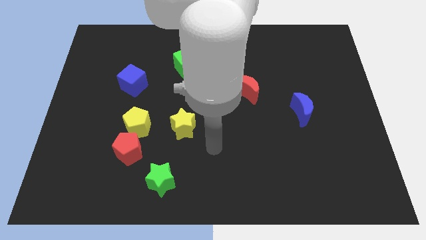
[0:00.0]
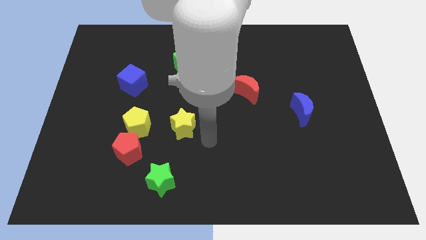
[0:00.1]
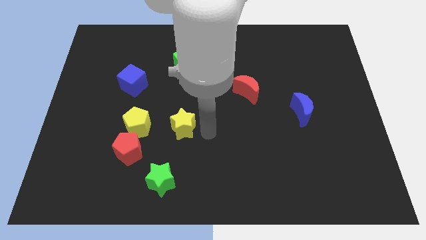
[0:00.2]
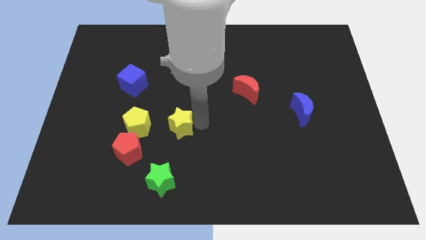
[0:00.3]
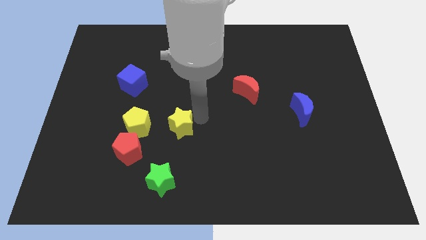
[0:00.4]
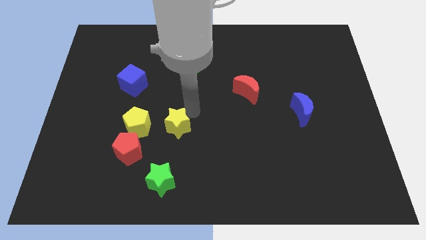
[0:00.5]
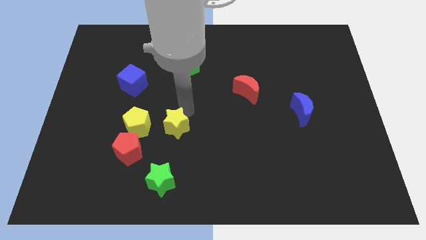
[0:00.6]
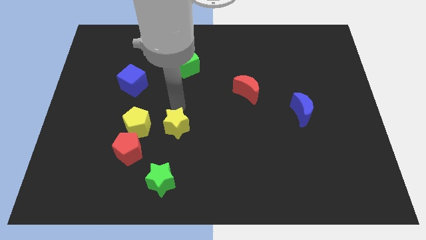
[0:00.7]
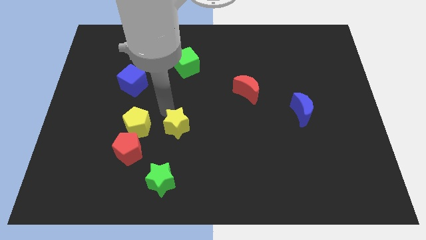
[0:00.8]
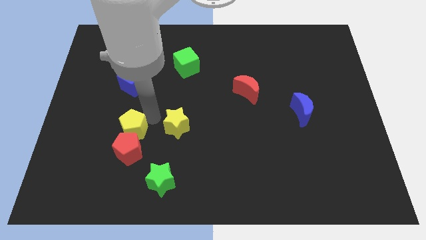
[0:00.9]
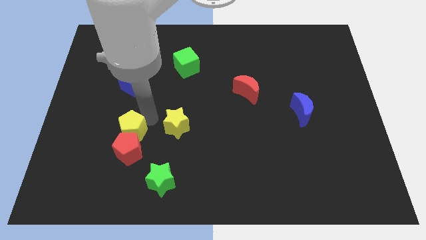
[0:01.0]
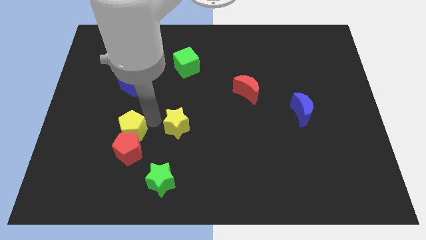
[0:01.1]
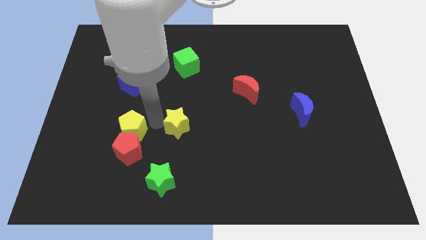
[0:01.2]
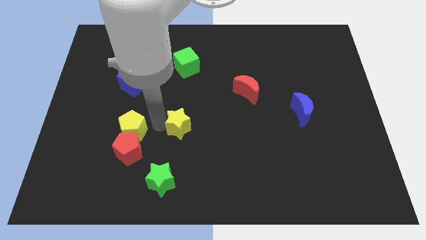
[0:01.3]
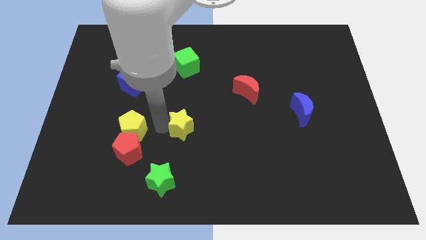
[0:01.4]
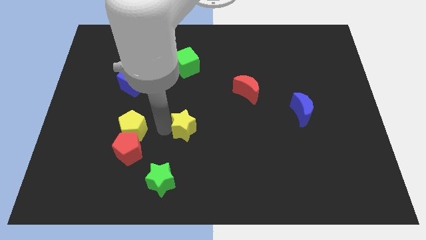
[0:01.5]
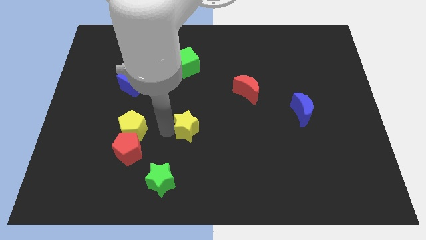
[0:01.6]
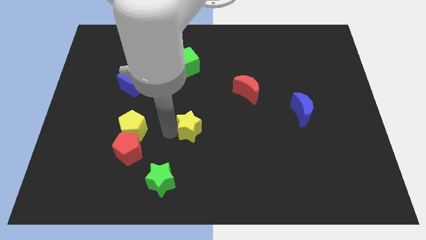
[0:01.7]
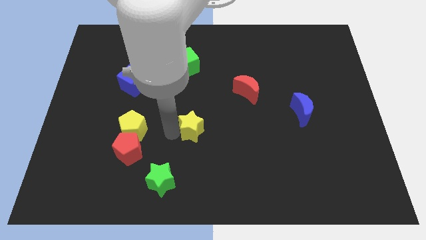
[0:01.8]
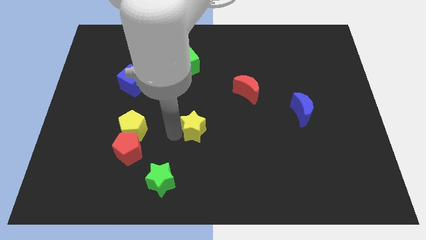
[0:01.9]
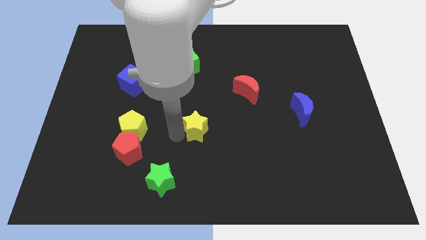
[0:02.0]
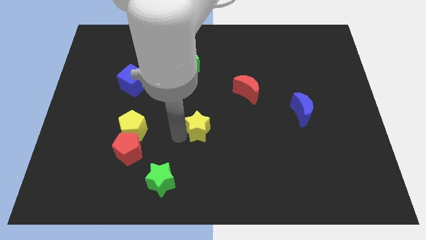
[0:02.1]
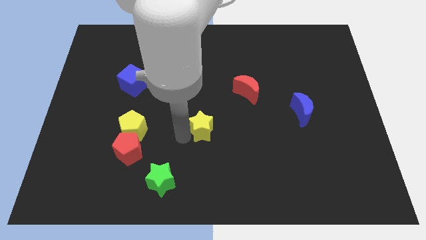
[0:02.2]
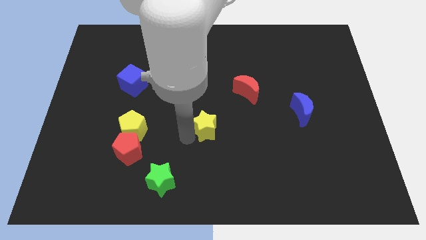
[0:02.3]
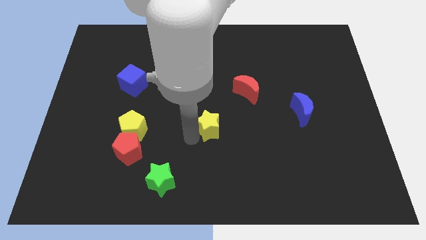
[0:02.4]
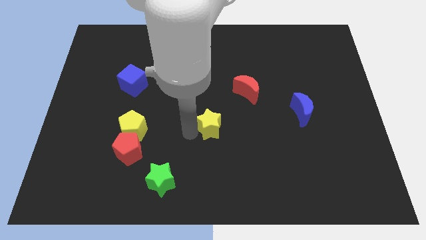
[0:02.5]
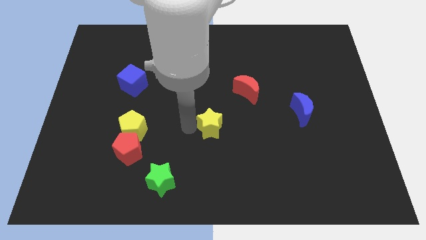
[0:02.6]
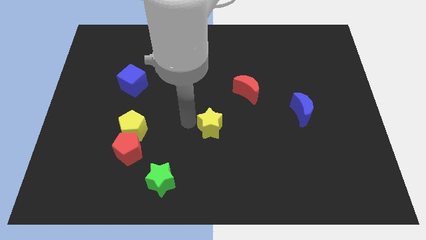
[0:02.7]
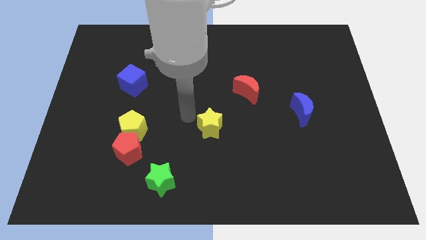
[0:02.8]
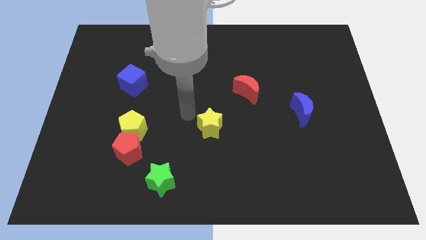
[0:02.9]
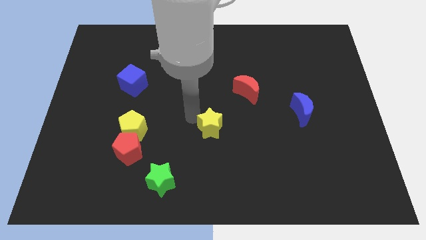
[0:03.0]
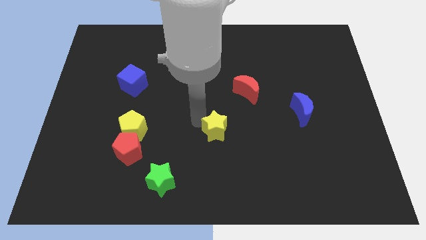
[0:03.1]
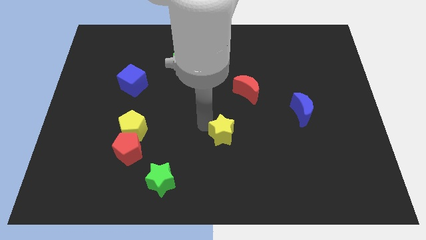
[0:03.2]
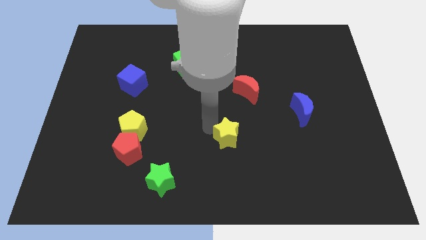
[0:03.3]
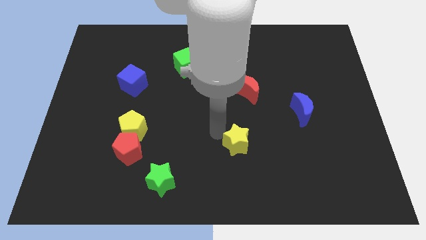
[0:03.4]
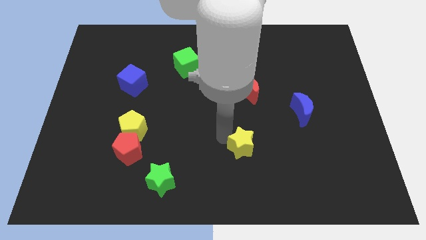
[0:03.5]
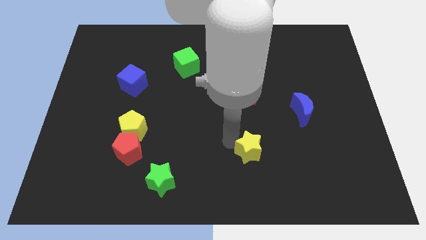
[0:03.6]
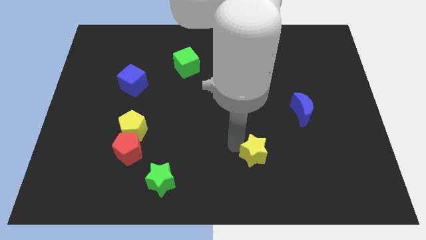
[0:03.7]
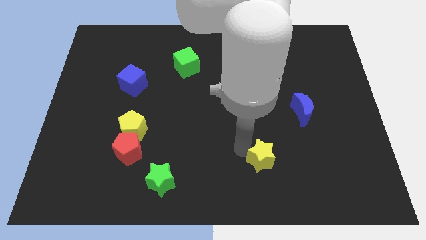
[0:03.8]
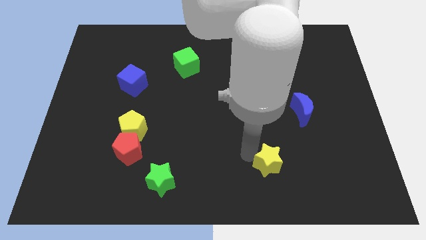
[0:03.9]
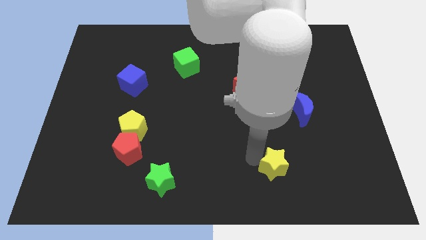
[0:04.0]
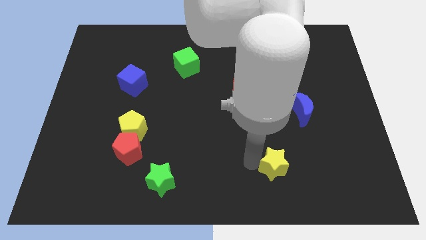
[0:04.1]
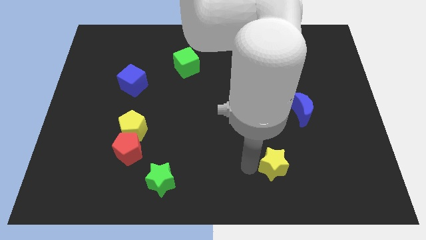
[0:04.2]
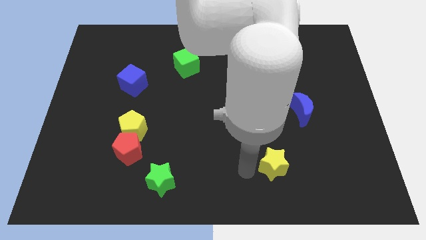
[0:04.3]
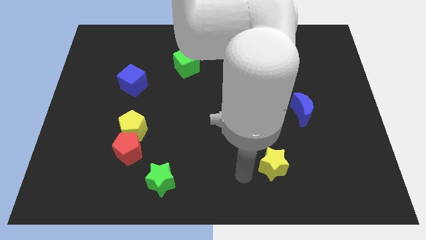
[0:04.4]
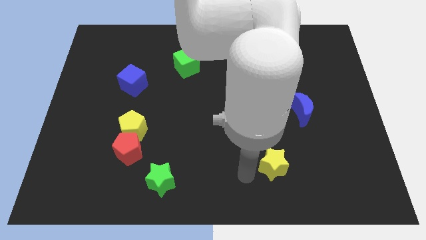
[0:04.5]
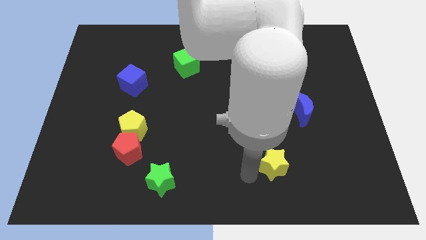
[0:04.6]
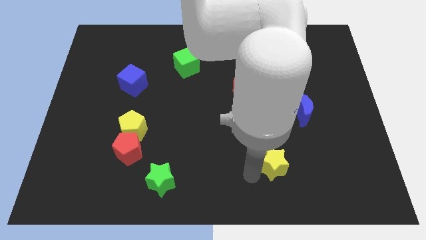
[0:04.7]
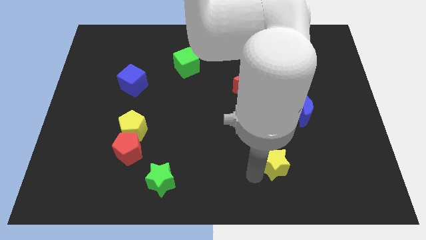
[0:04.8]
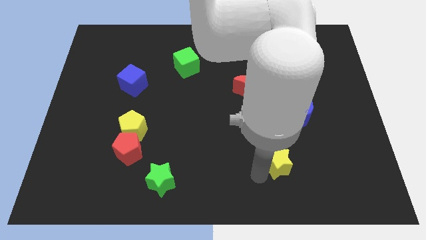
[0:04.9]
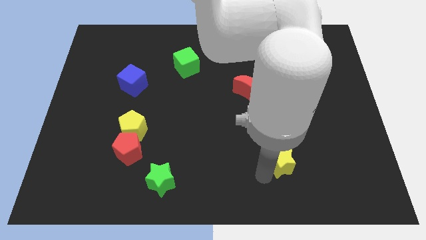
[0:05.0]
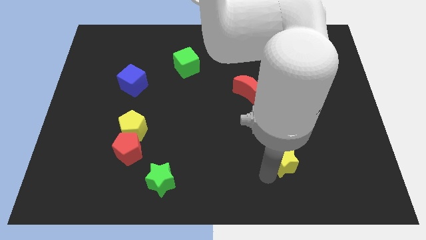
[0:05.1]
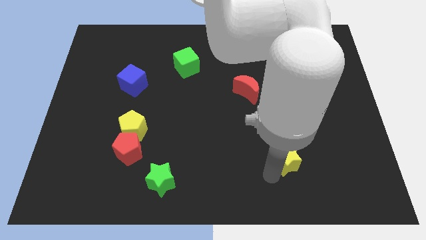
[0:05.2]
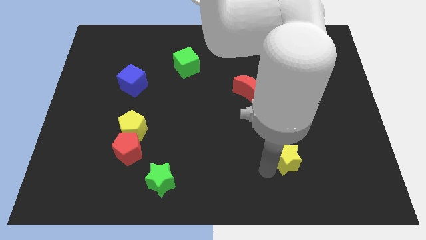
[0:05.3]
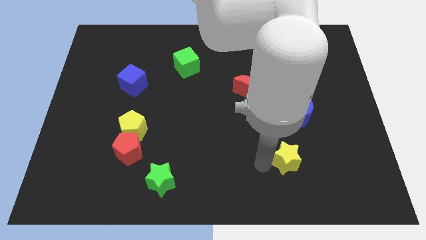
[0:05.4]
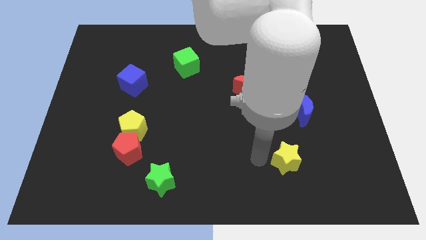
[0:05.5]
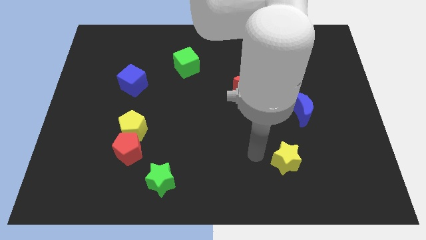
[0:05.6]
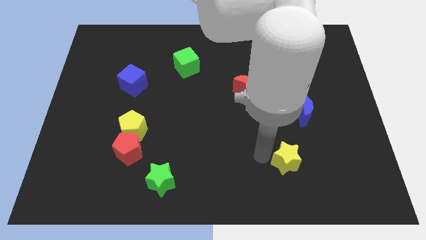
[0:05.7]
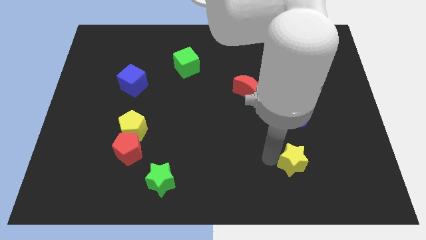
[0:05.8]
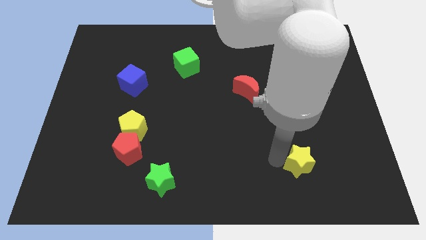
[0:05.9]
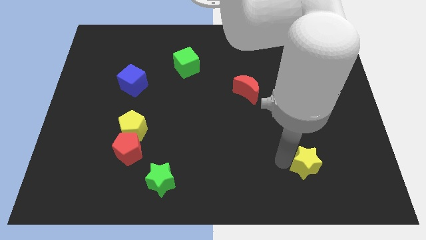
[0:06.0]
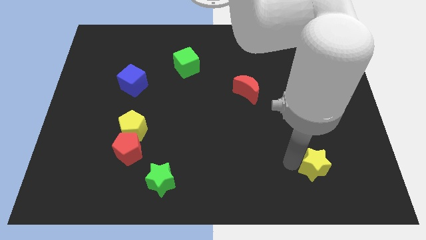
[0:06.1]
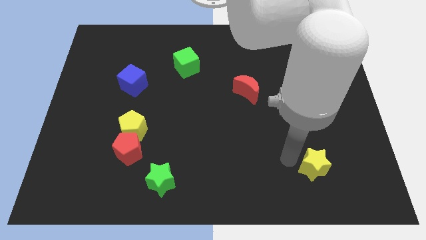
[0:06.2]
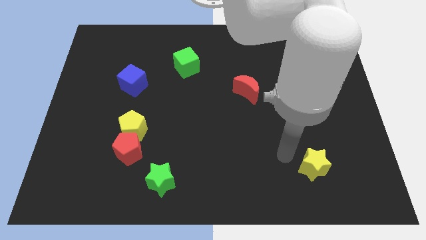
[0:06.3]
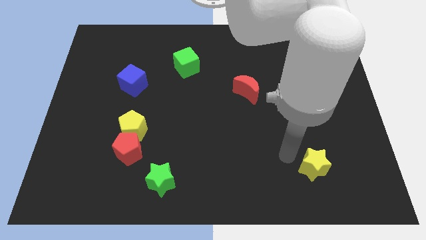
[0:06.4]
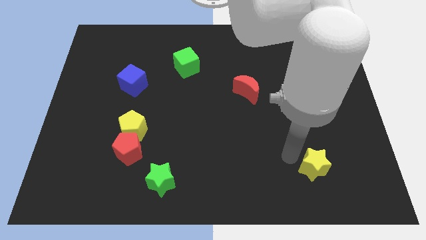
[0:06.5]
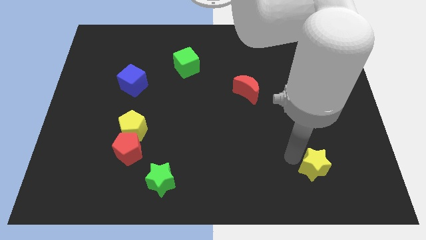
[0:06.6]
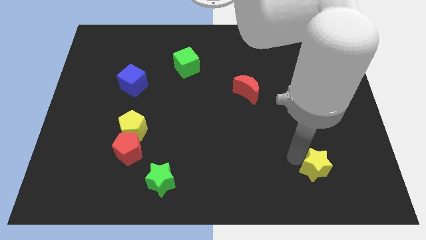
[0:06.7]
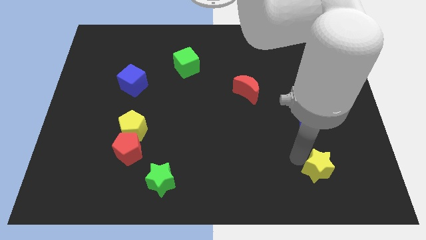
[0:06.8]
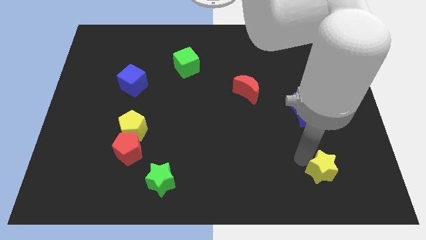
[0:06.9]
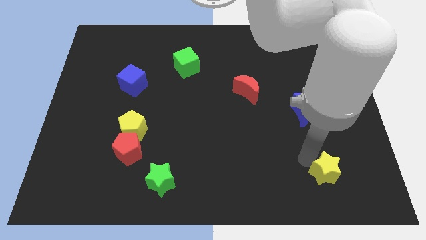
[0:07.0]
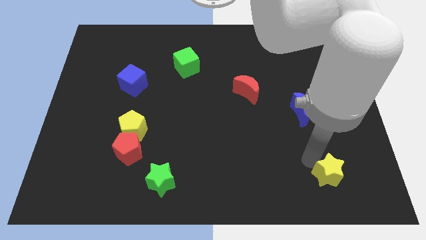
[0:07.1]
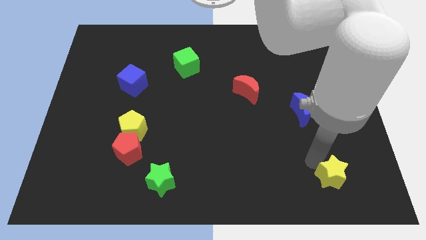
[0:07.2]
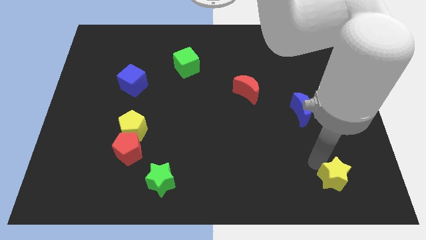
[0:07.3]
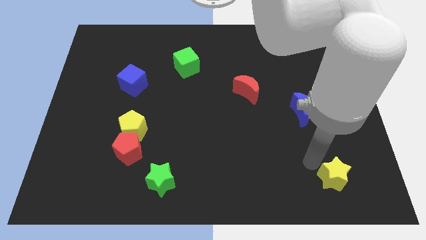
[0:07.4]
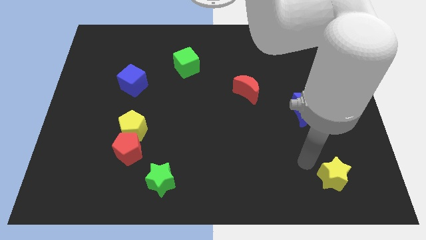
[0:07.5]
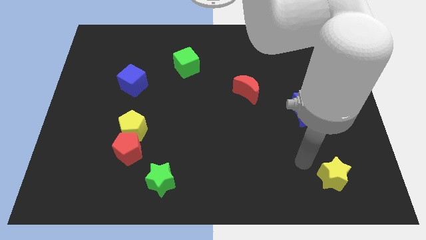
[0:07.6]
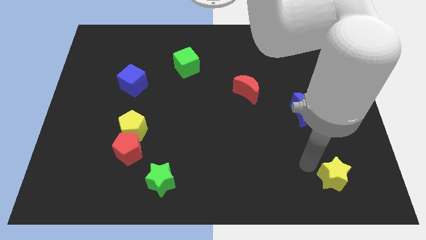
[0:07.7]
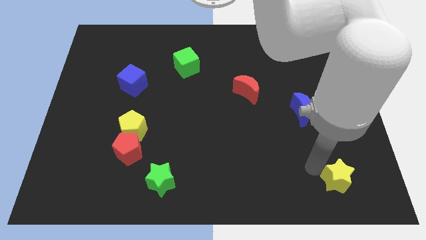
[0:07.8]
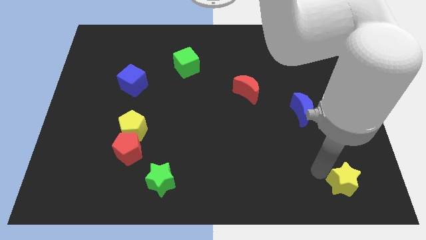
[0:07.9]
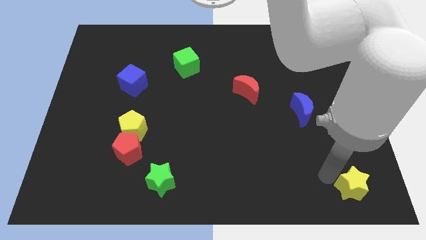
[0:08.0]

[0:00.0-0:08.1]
push the yellow star to the lower right corner
